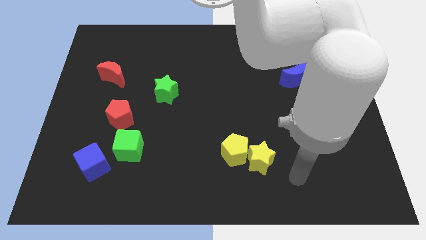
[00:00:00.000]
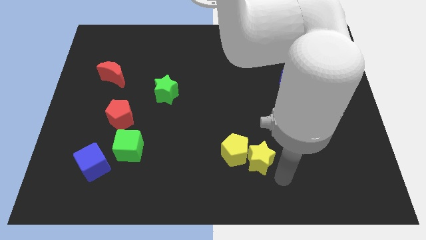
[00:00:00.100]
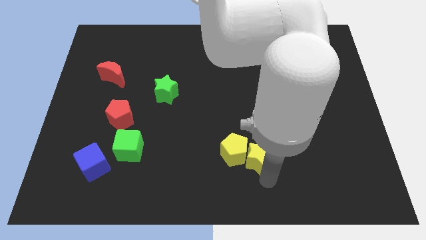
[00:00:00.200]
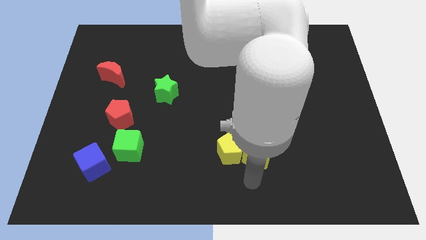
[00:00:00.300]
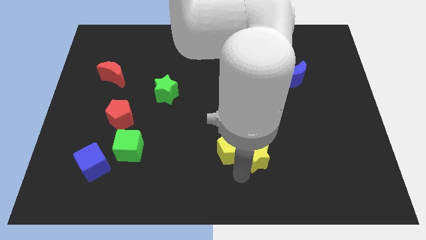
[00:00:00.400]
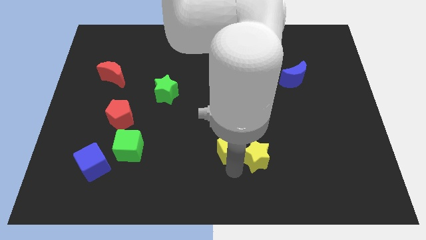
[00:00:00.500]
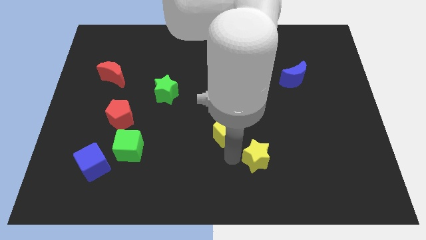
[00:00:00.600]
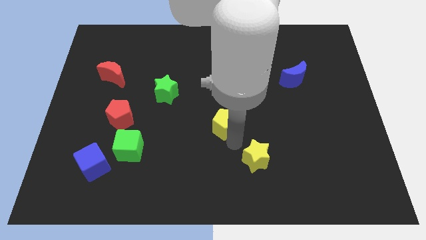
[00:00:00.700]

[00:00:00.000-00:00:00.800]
pull the yellow star apart from the yellow pentagon

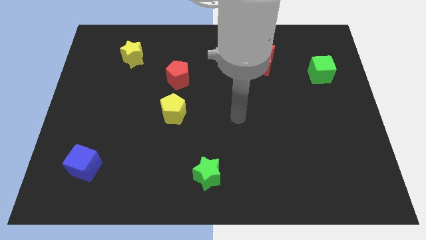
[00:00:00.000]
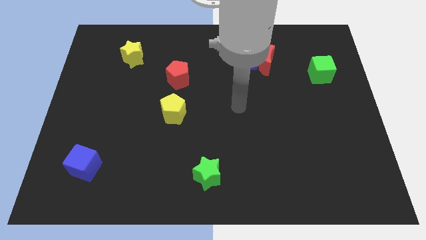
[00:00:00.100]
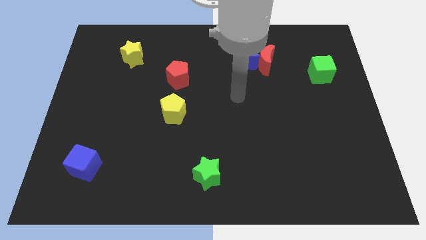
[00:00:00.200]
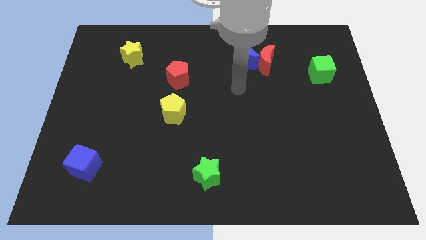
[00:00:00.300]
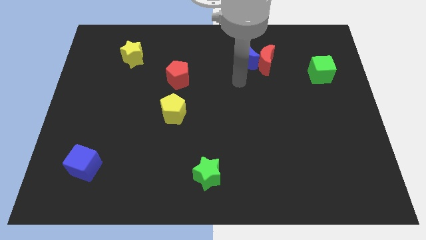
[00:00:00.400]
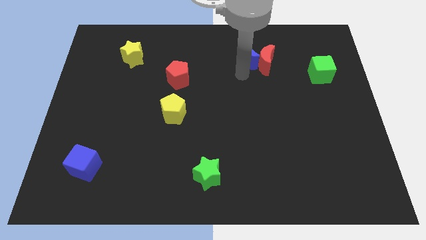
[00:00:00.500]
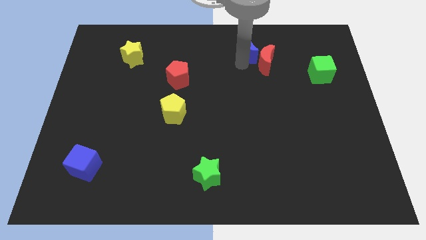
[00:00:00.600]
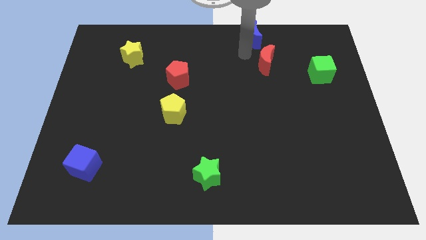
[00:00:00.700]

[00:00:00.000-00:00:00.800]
move the red moon away from the blue moon

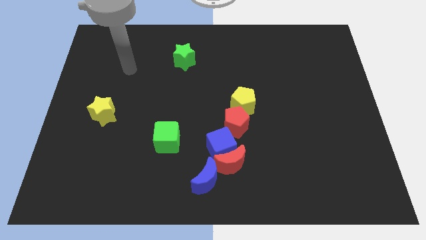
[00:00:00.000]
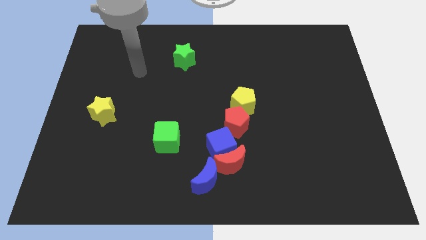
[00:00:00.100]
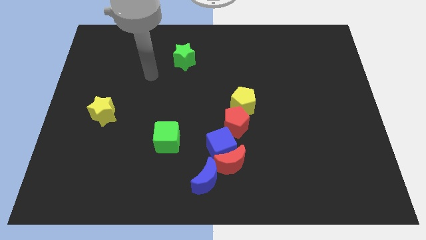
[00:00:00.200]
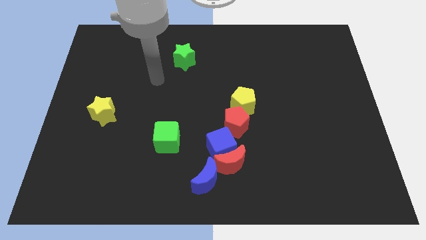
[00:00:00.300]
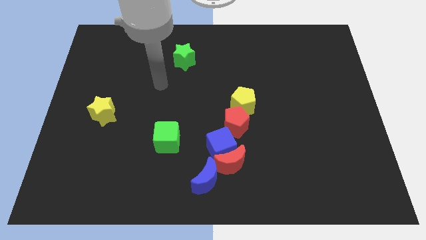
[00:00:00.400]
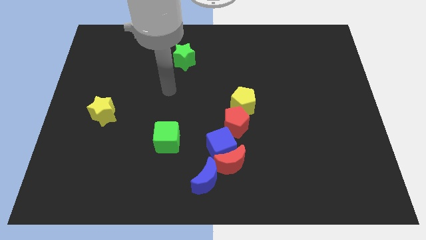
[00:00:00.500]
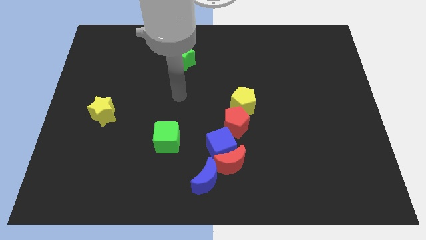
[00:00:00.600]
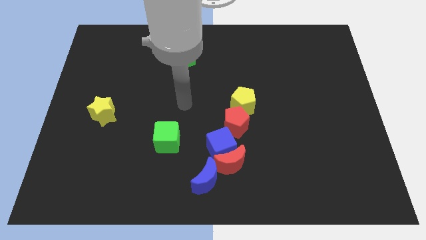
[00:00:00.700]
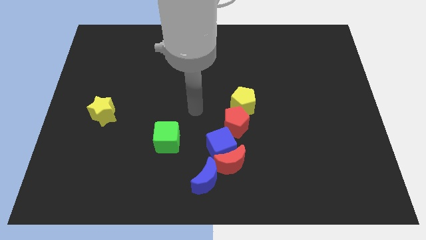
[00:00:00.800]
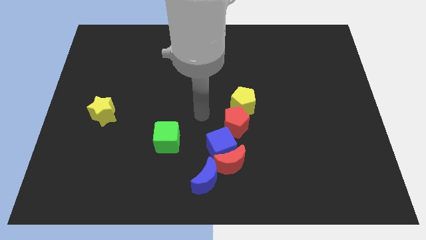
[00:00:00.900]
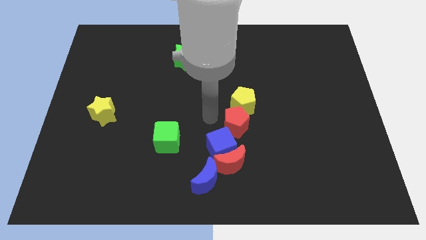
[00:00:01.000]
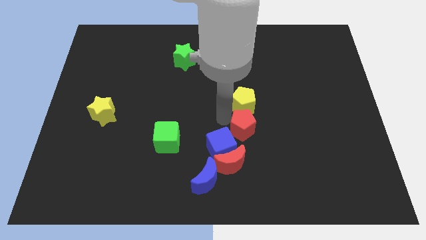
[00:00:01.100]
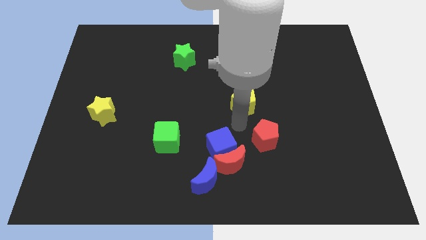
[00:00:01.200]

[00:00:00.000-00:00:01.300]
move the yellow pentagon away from the red pentagon

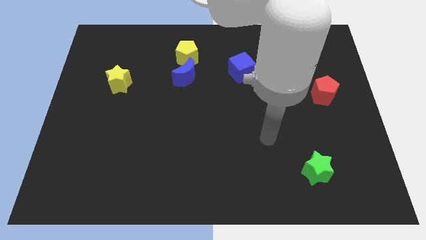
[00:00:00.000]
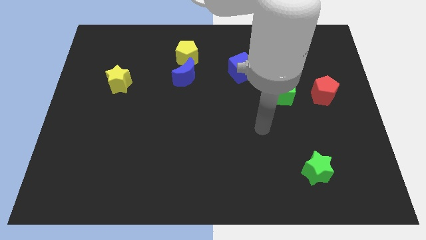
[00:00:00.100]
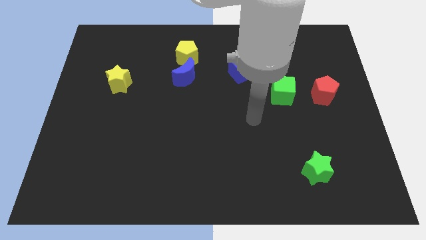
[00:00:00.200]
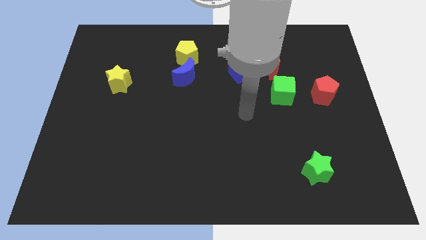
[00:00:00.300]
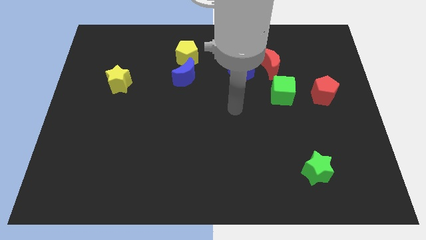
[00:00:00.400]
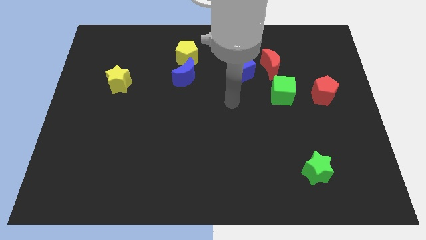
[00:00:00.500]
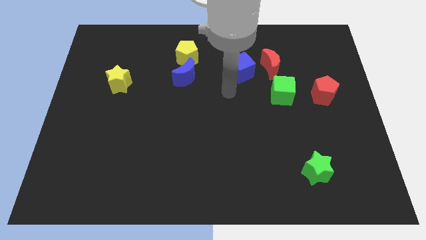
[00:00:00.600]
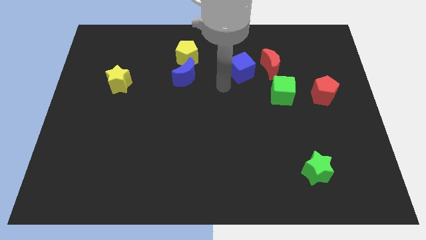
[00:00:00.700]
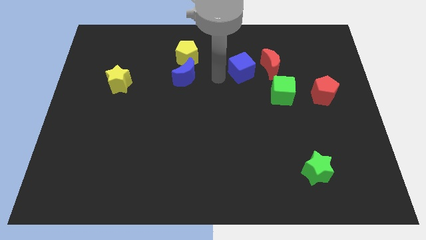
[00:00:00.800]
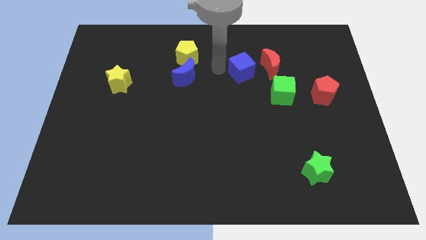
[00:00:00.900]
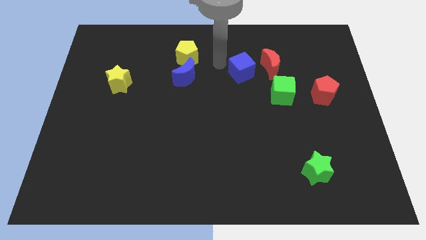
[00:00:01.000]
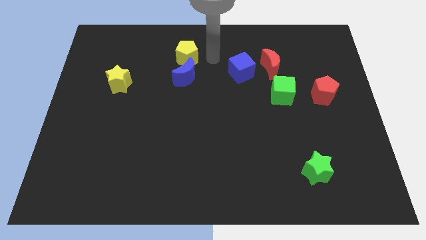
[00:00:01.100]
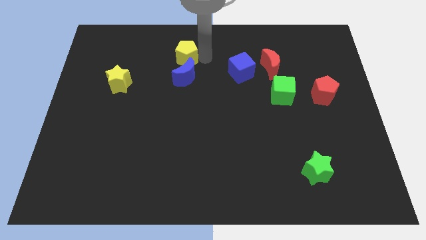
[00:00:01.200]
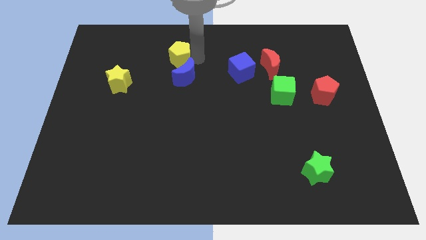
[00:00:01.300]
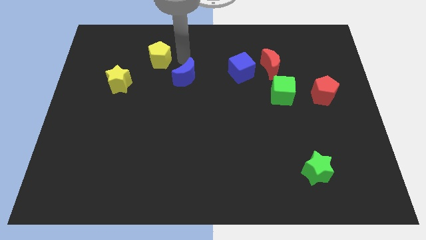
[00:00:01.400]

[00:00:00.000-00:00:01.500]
separate the blue moon from the yellow pentagon

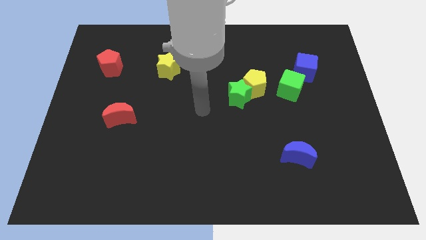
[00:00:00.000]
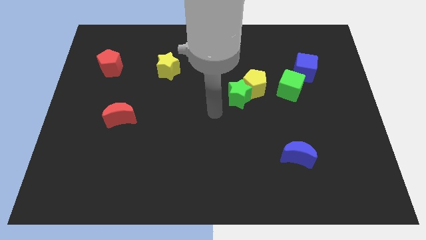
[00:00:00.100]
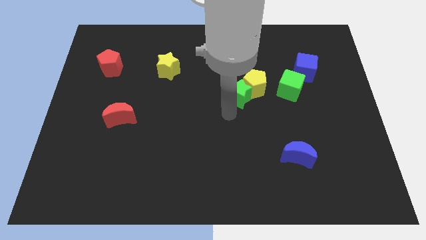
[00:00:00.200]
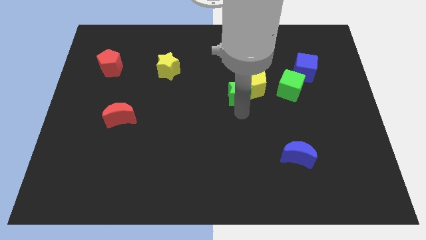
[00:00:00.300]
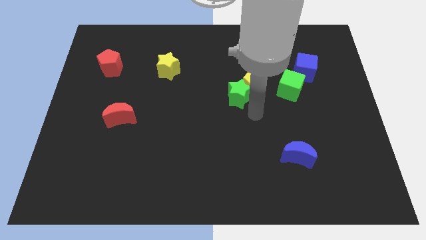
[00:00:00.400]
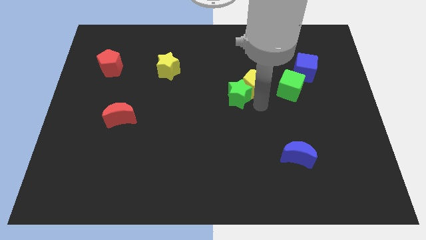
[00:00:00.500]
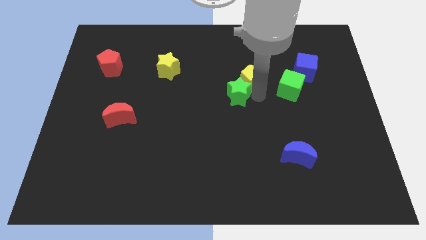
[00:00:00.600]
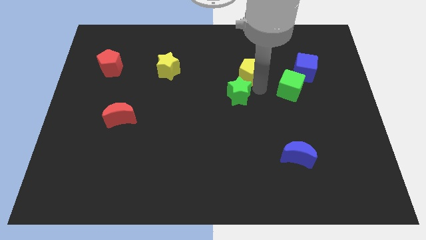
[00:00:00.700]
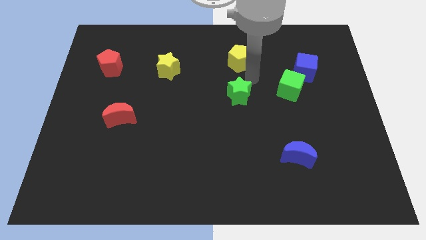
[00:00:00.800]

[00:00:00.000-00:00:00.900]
separate the green star from the yellow pentagon

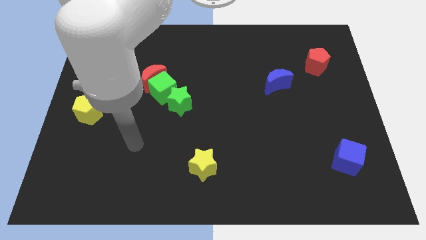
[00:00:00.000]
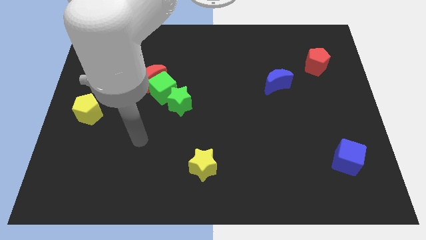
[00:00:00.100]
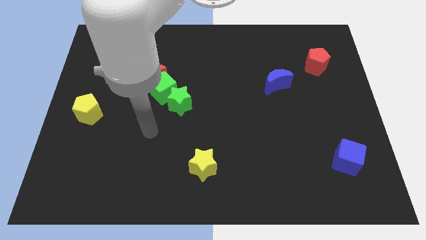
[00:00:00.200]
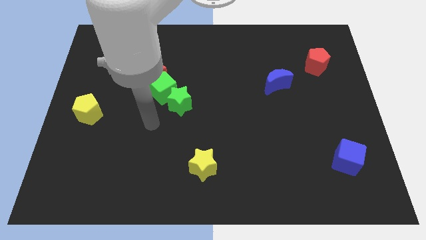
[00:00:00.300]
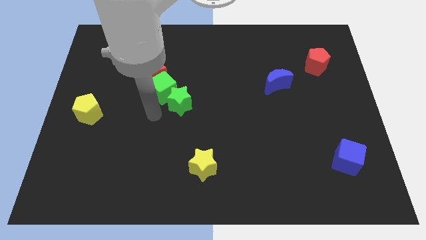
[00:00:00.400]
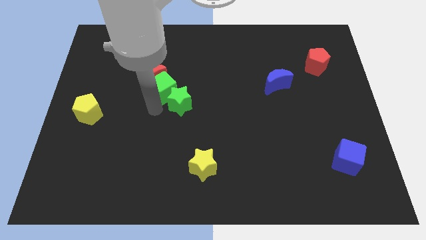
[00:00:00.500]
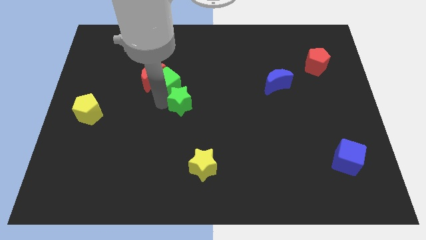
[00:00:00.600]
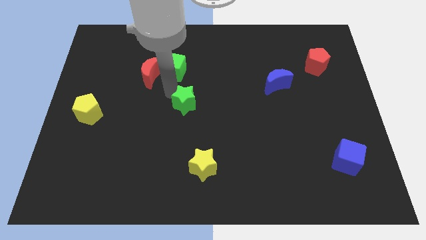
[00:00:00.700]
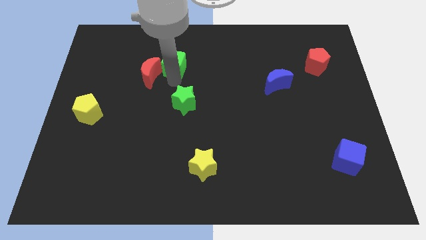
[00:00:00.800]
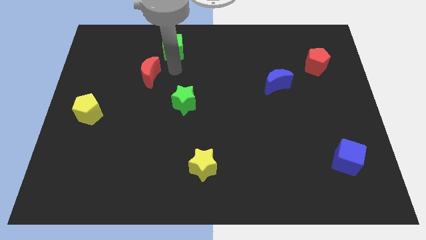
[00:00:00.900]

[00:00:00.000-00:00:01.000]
separate the red moon from the green cube

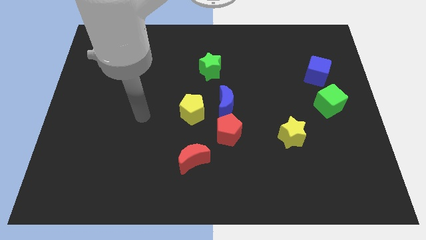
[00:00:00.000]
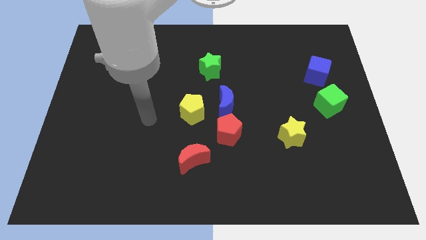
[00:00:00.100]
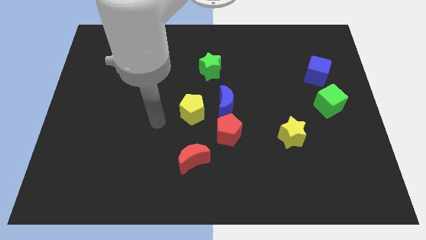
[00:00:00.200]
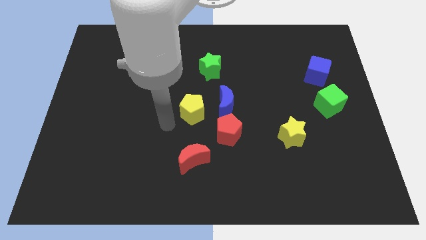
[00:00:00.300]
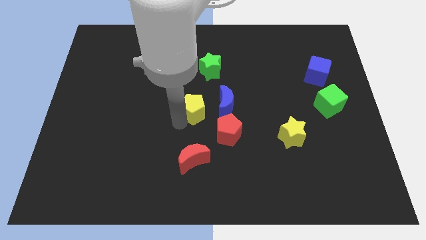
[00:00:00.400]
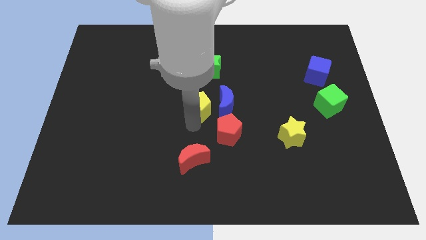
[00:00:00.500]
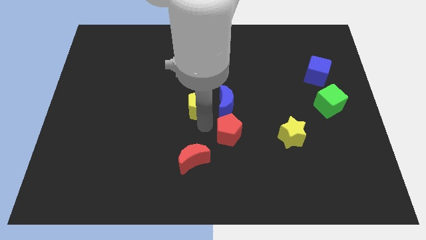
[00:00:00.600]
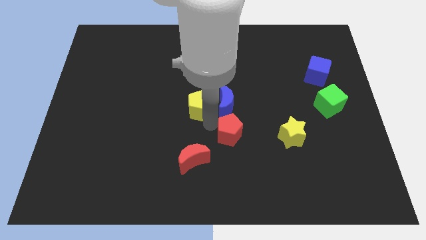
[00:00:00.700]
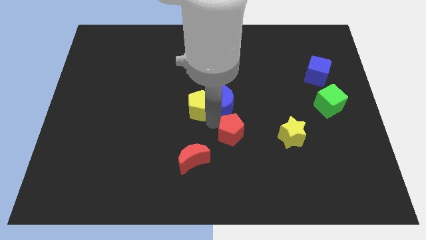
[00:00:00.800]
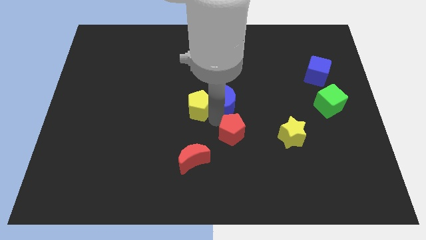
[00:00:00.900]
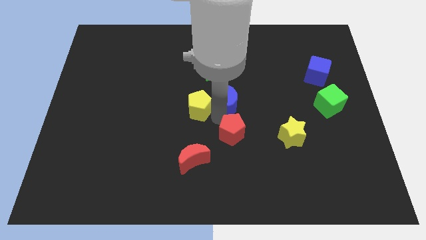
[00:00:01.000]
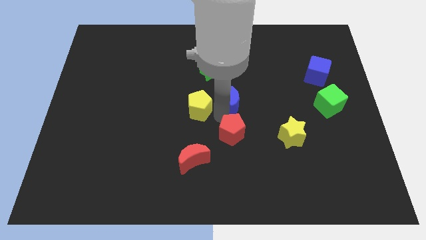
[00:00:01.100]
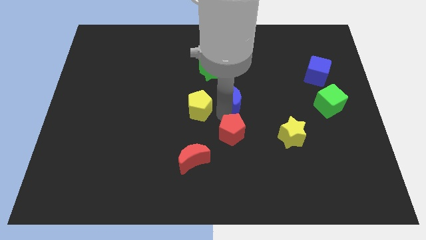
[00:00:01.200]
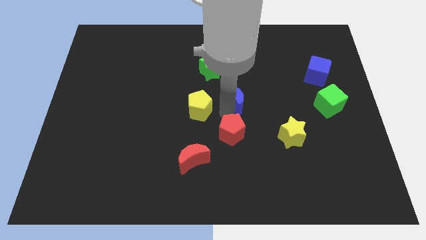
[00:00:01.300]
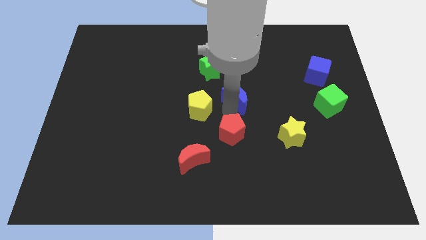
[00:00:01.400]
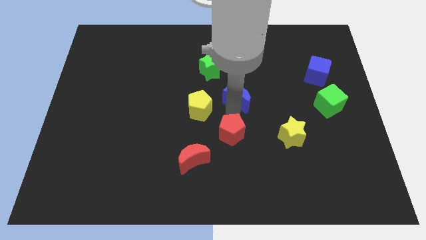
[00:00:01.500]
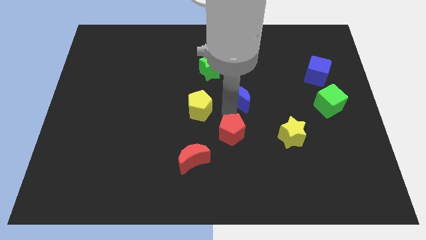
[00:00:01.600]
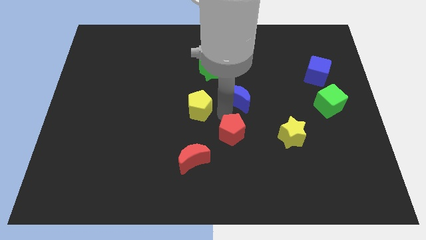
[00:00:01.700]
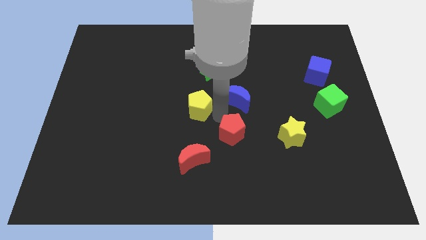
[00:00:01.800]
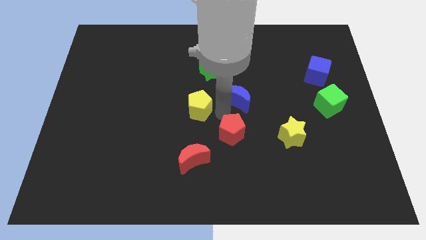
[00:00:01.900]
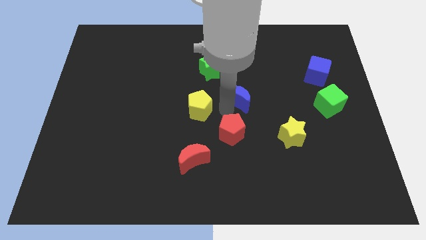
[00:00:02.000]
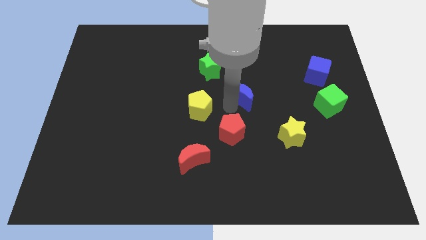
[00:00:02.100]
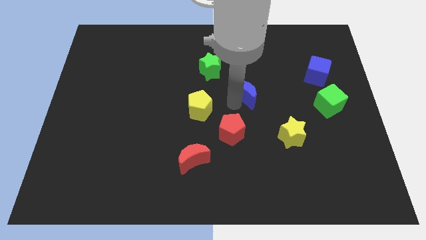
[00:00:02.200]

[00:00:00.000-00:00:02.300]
move the blue moon away from the red pentagon and yellow pentagon

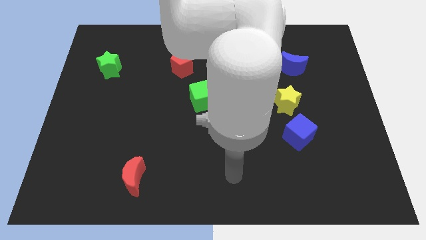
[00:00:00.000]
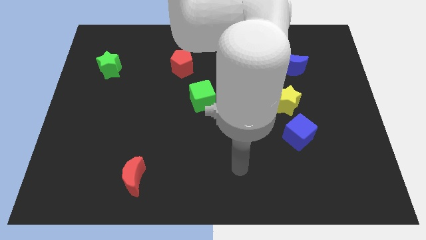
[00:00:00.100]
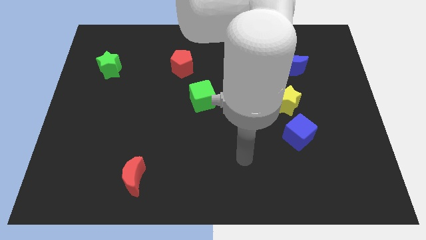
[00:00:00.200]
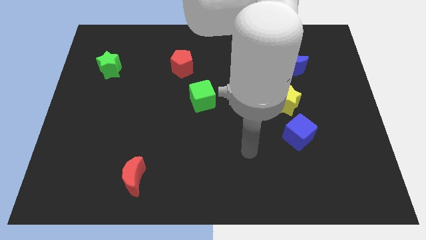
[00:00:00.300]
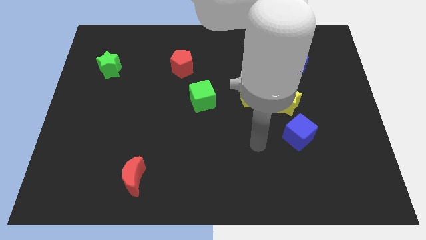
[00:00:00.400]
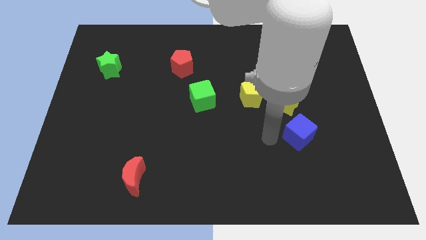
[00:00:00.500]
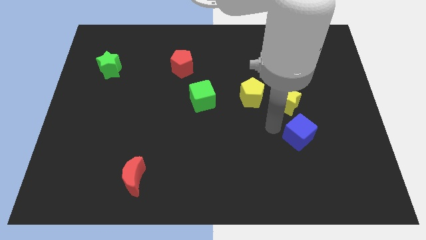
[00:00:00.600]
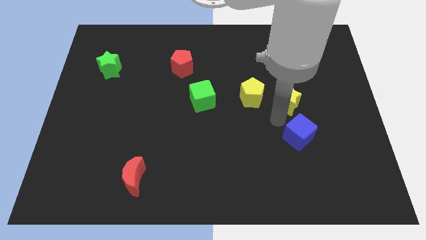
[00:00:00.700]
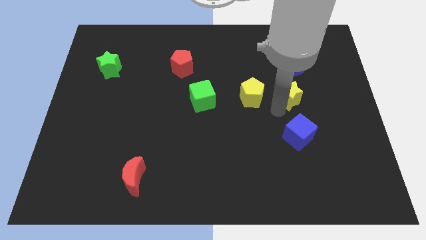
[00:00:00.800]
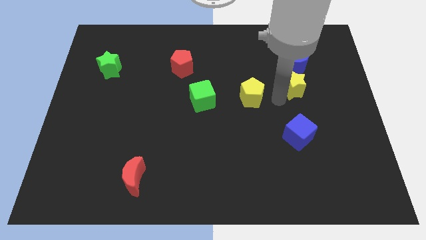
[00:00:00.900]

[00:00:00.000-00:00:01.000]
move the yellow pentagon away from the yellow star
